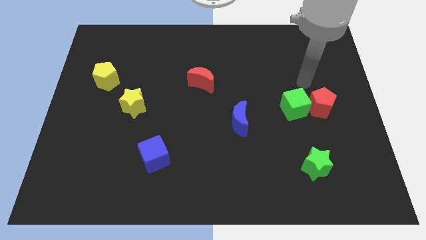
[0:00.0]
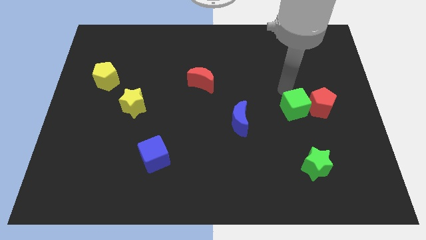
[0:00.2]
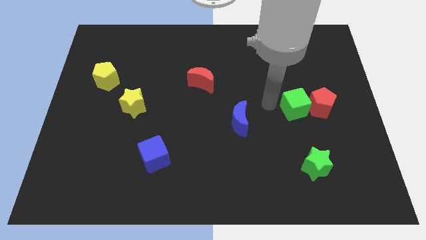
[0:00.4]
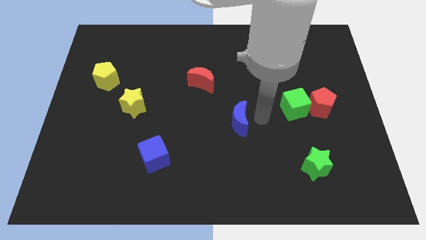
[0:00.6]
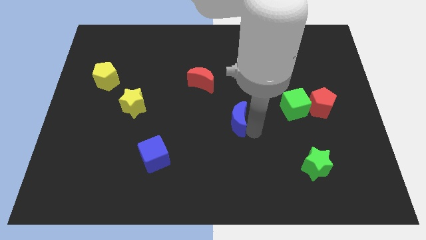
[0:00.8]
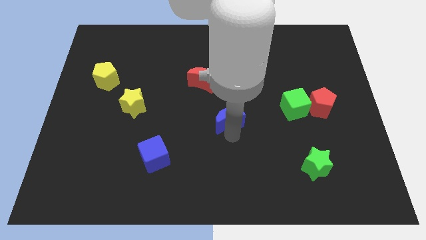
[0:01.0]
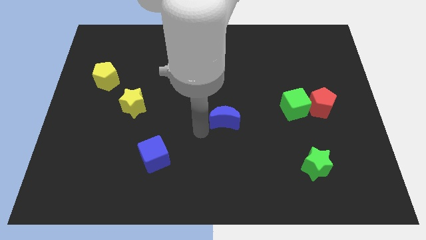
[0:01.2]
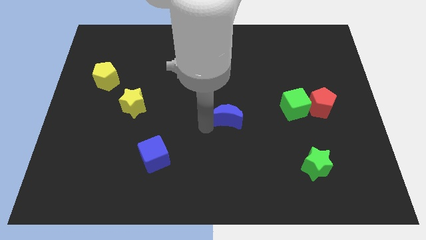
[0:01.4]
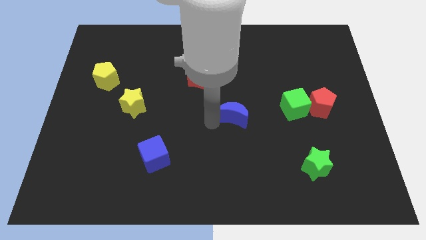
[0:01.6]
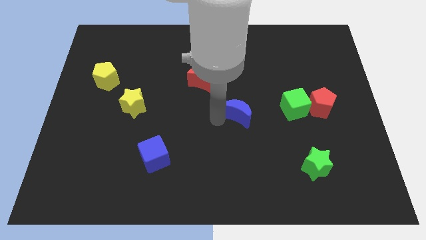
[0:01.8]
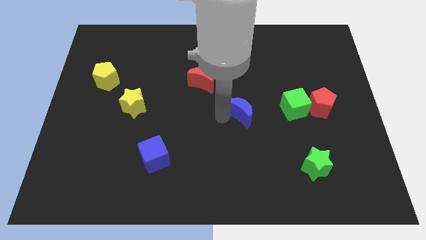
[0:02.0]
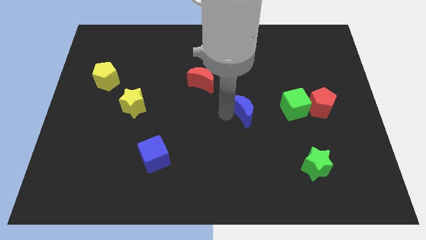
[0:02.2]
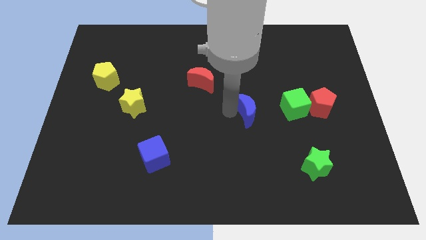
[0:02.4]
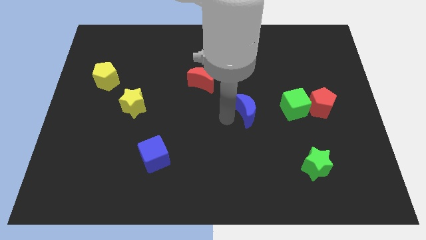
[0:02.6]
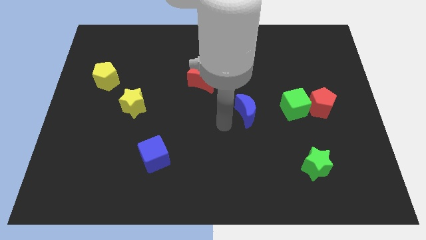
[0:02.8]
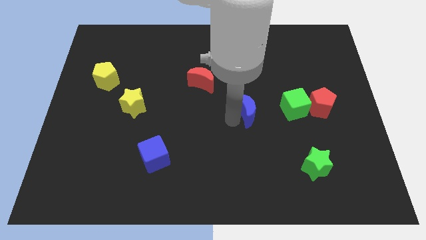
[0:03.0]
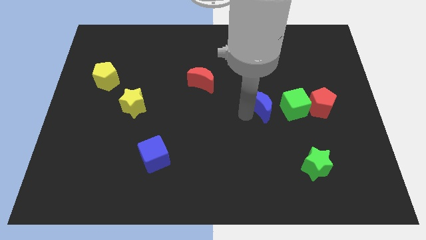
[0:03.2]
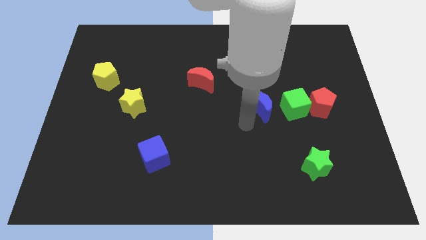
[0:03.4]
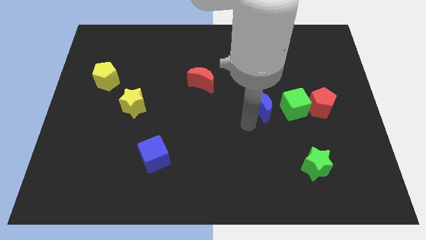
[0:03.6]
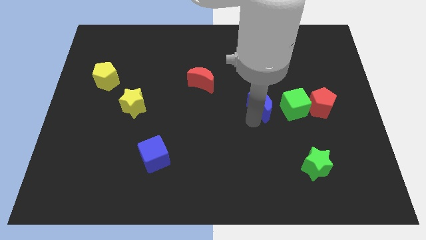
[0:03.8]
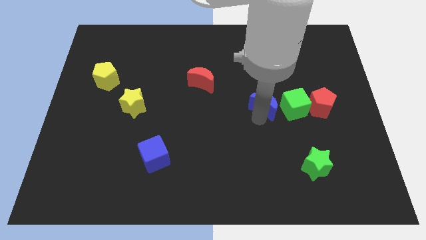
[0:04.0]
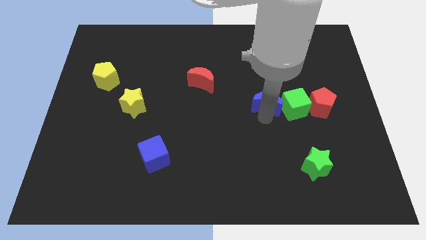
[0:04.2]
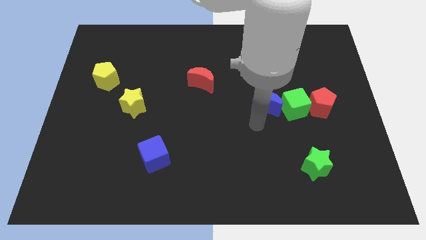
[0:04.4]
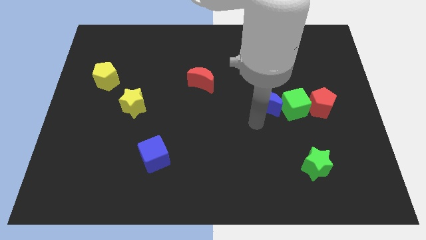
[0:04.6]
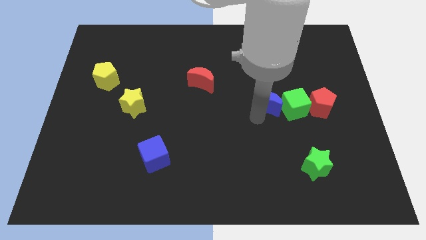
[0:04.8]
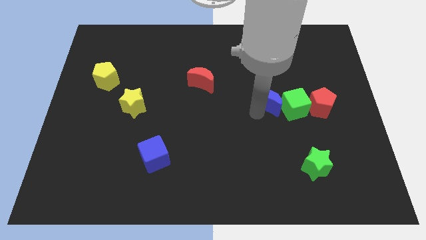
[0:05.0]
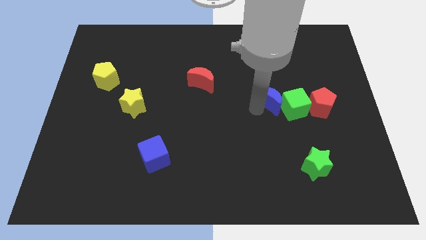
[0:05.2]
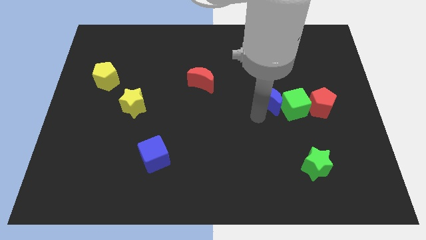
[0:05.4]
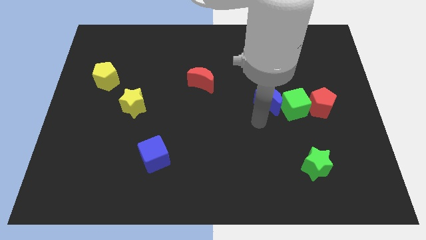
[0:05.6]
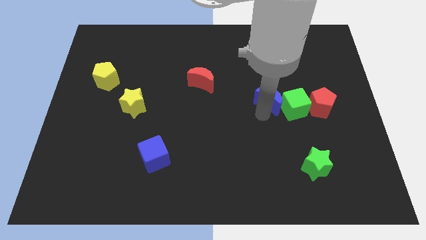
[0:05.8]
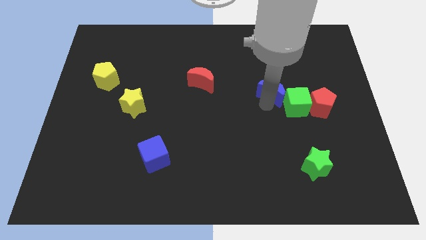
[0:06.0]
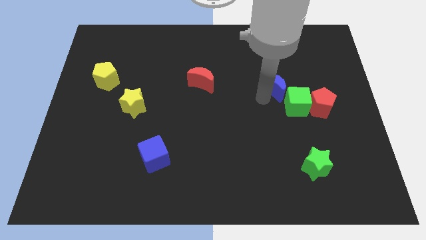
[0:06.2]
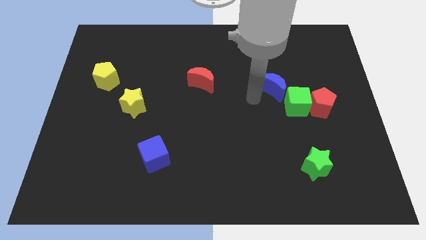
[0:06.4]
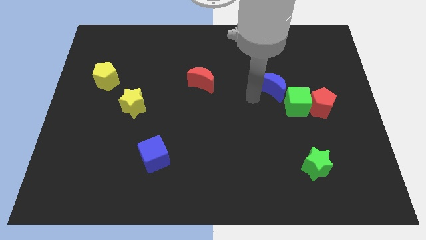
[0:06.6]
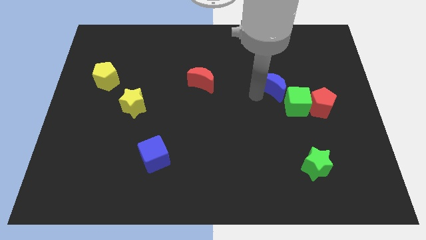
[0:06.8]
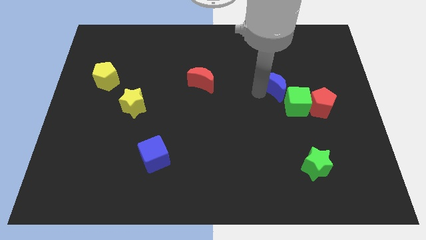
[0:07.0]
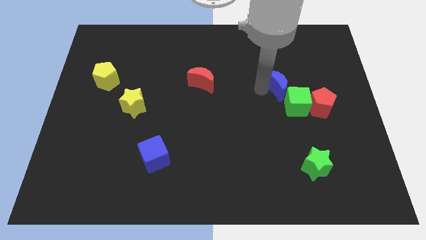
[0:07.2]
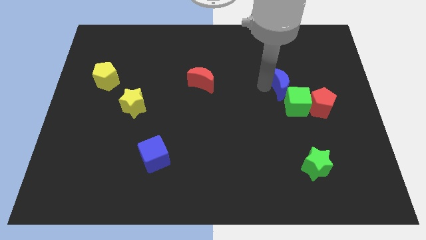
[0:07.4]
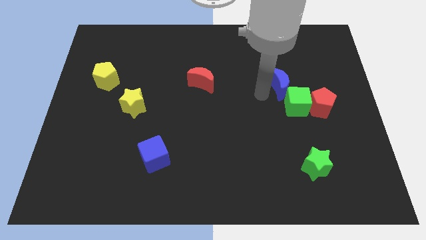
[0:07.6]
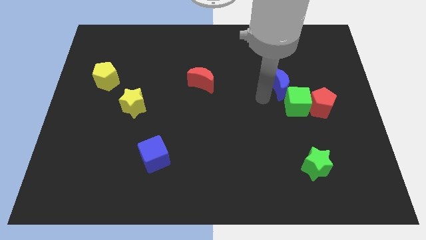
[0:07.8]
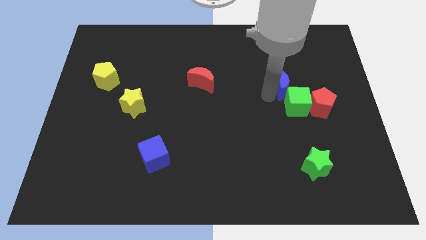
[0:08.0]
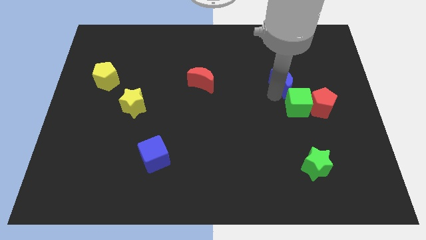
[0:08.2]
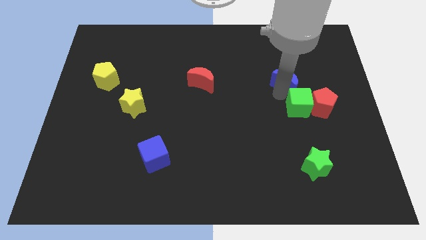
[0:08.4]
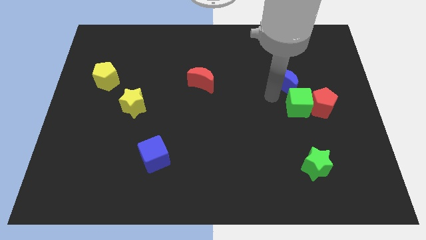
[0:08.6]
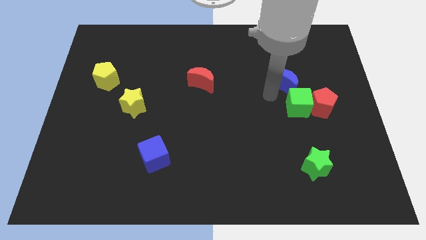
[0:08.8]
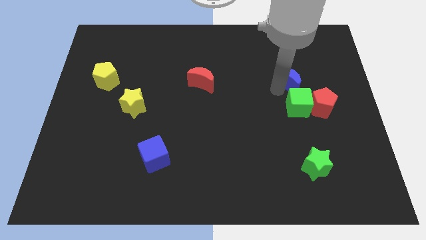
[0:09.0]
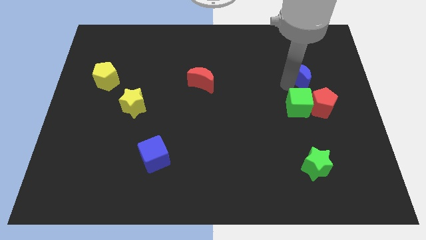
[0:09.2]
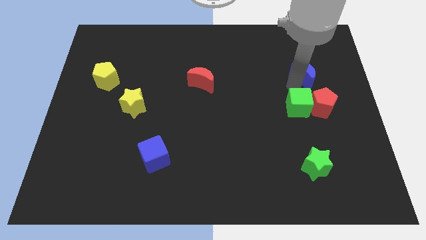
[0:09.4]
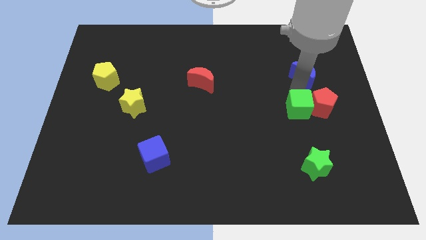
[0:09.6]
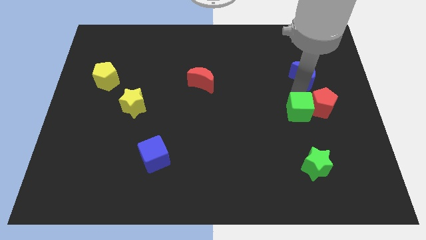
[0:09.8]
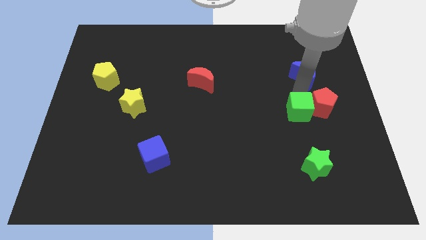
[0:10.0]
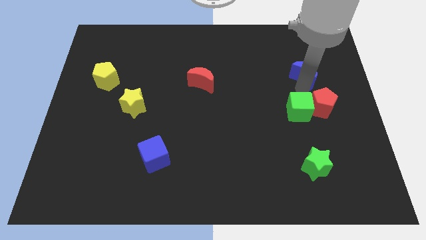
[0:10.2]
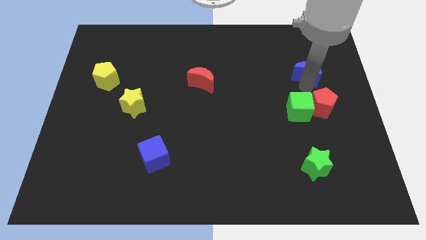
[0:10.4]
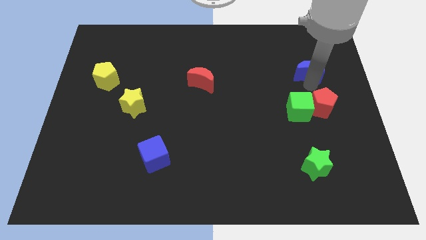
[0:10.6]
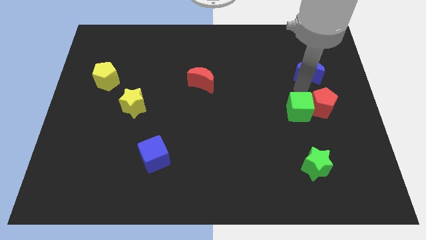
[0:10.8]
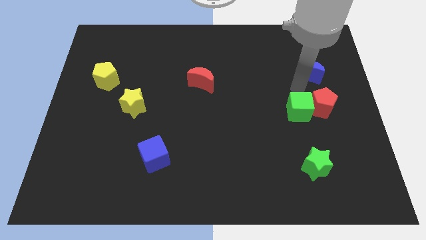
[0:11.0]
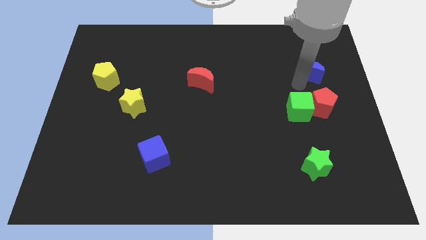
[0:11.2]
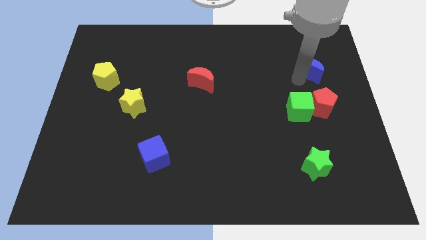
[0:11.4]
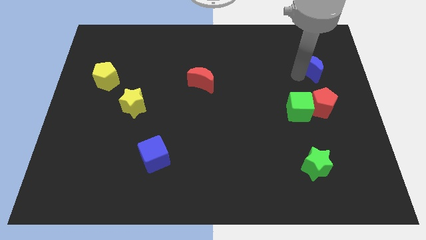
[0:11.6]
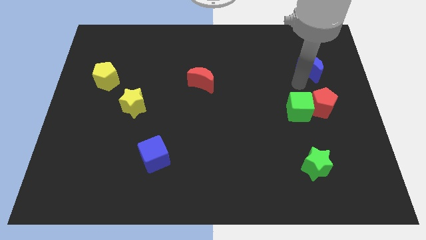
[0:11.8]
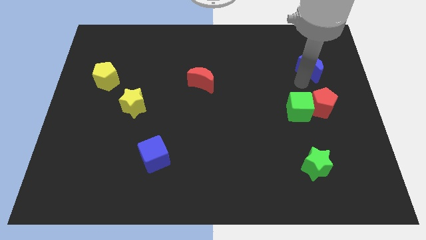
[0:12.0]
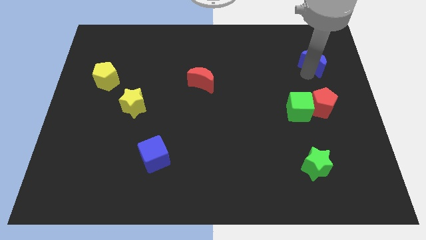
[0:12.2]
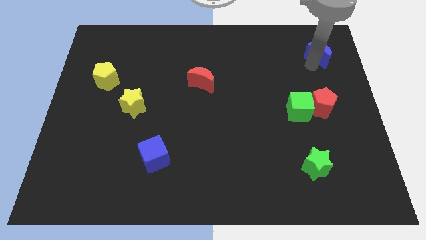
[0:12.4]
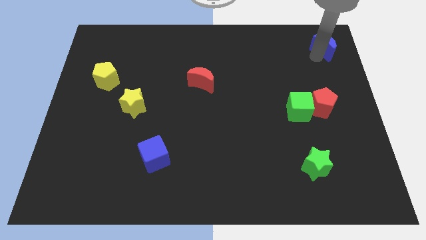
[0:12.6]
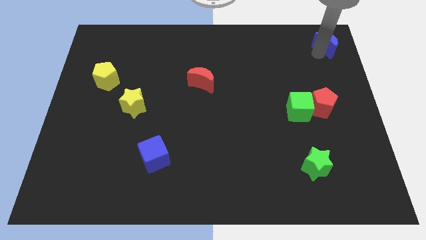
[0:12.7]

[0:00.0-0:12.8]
slide the blue moon to the top right corner
